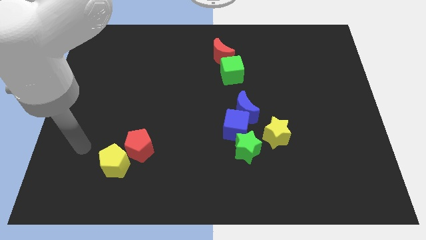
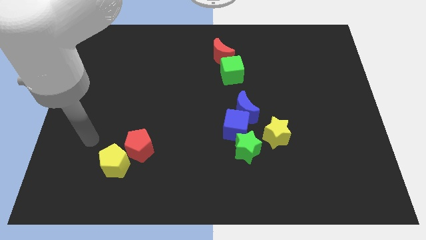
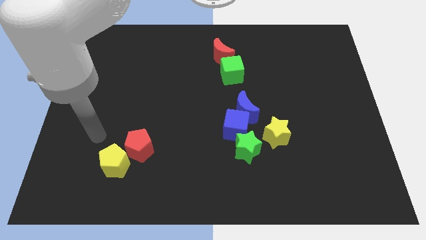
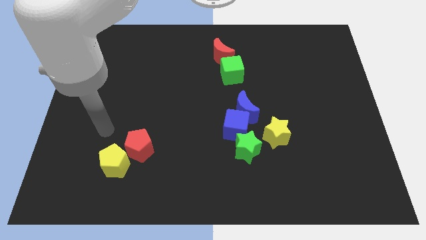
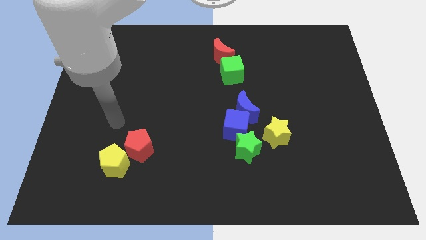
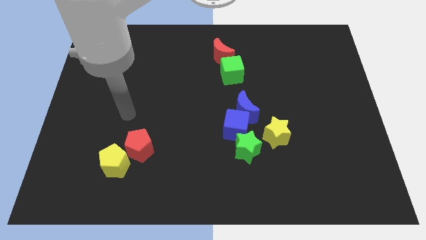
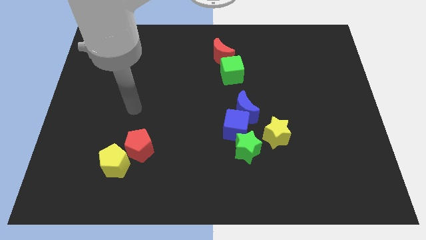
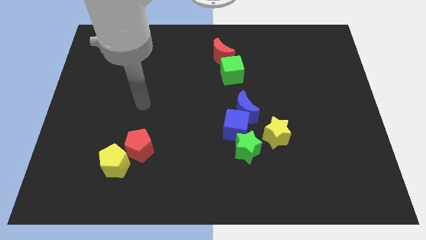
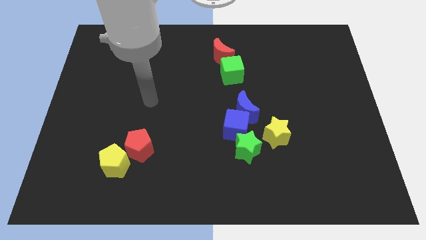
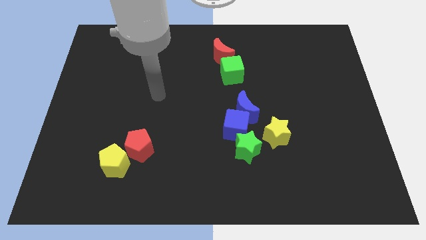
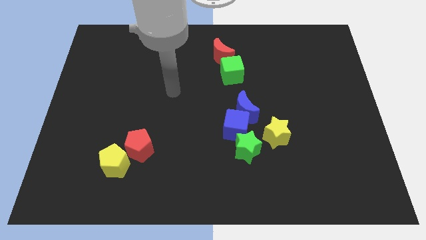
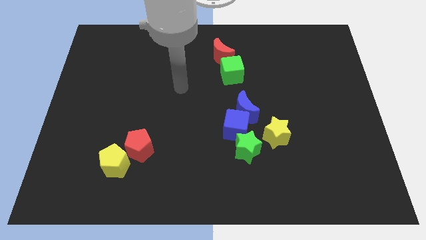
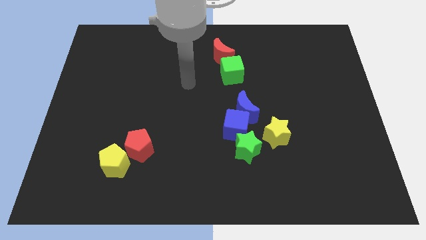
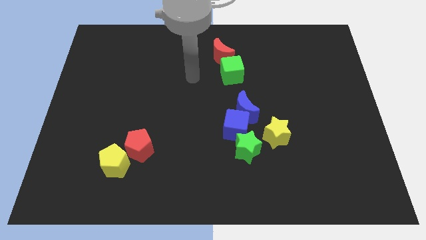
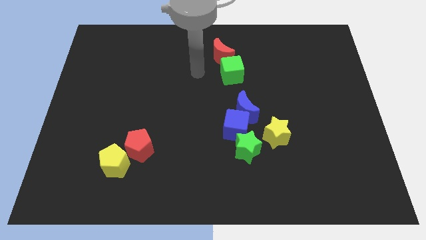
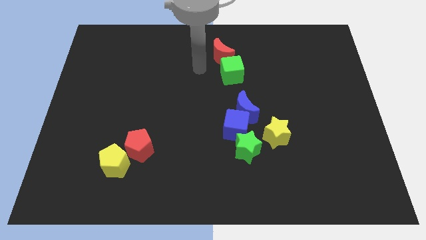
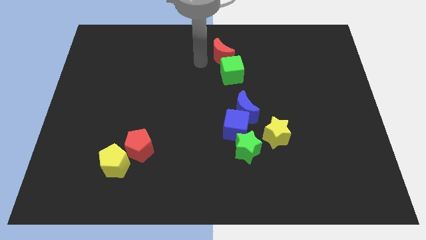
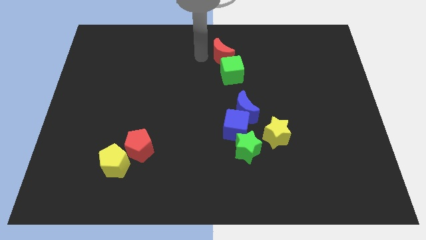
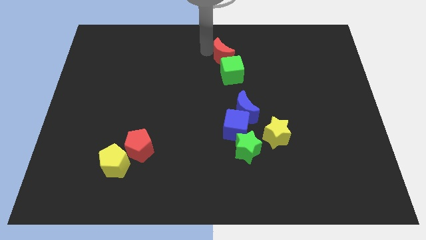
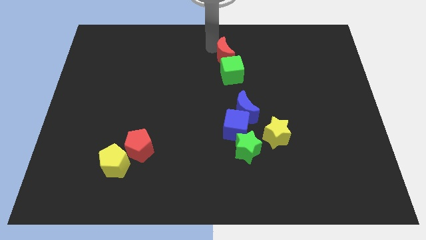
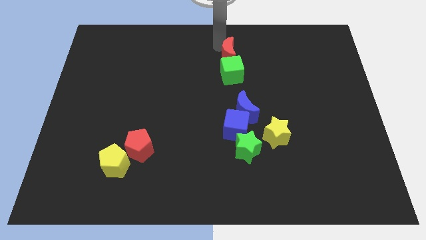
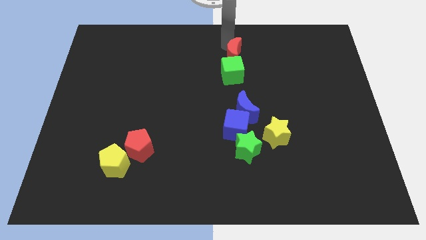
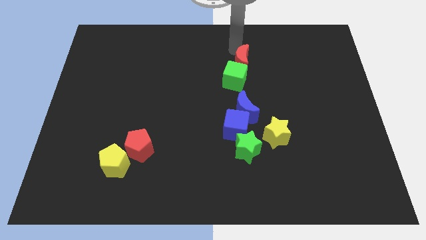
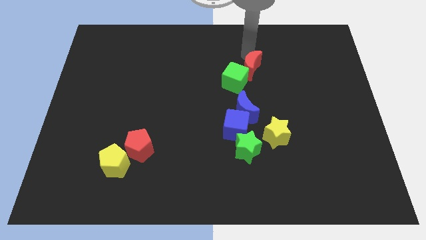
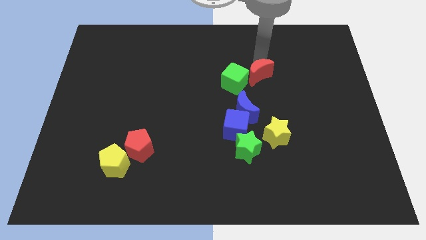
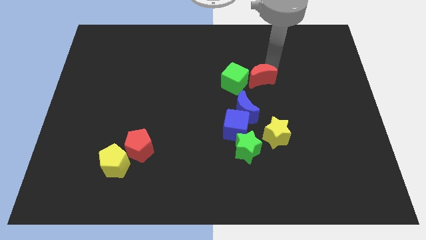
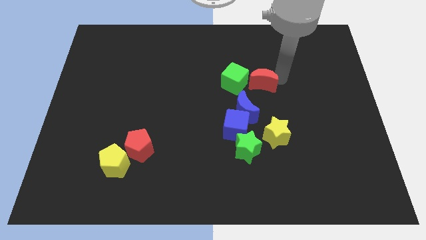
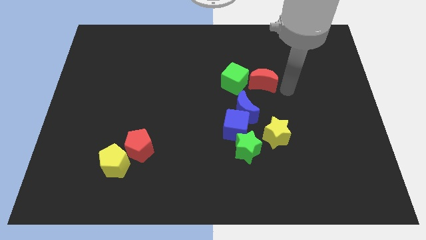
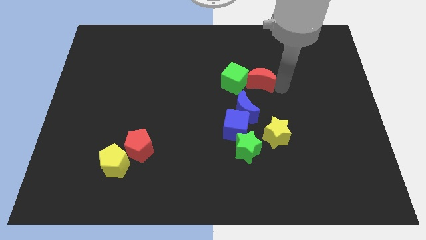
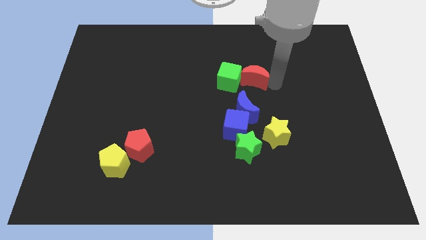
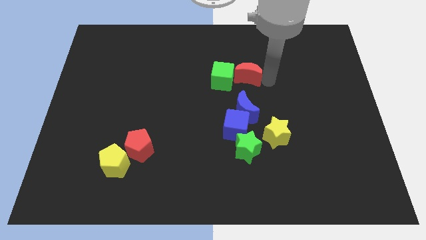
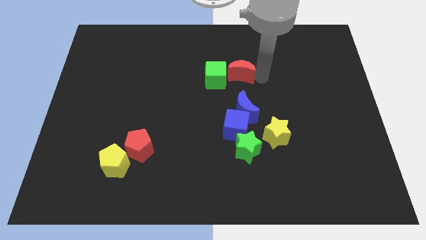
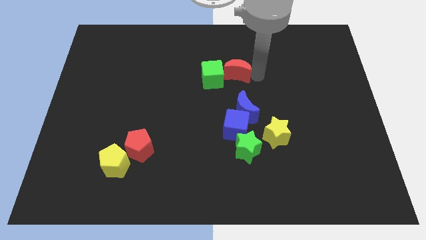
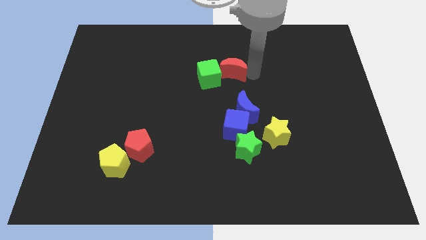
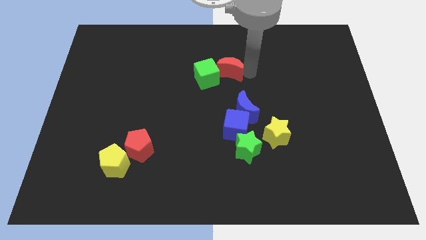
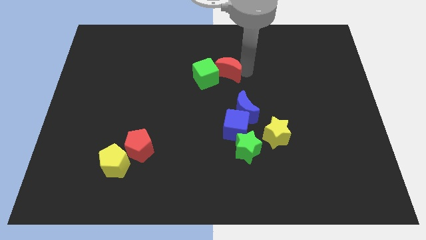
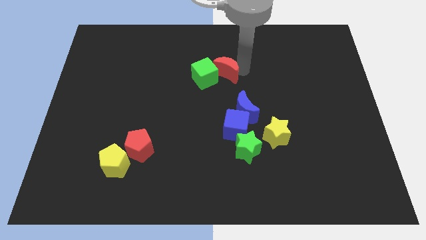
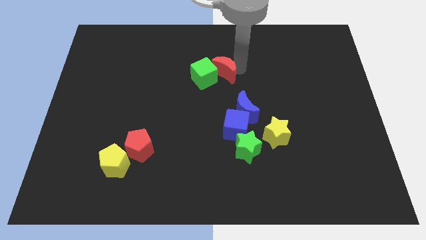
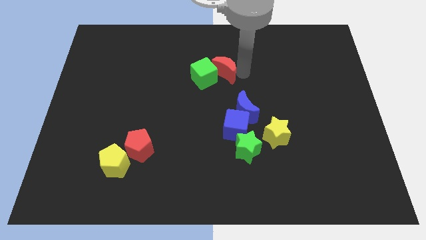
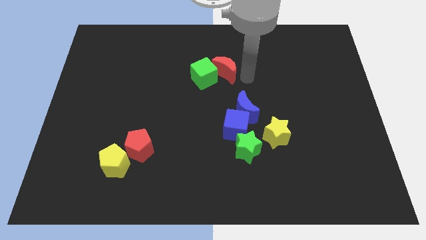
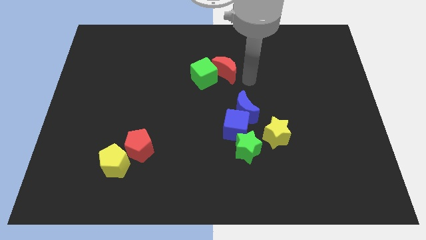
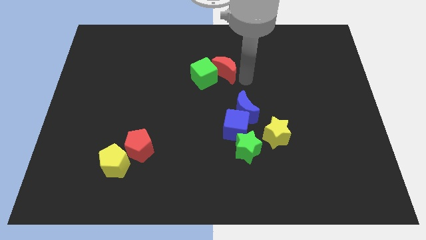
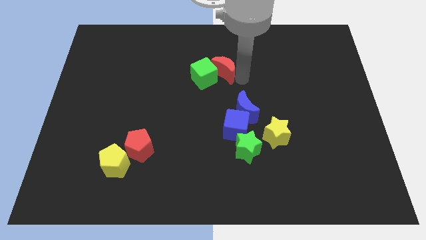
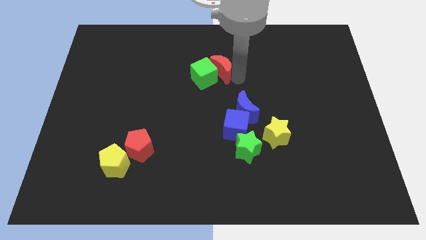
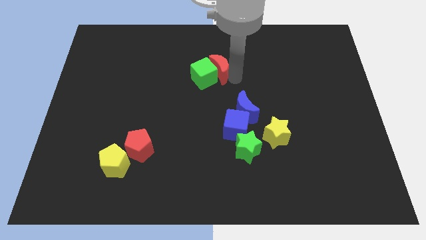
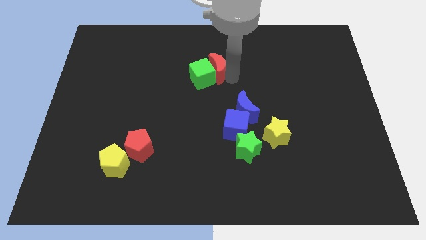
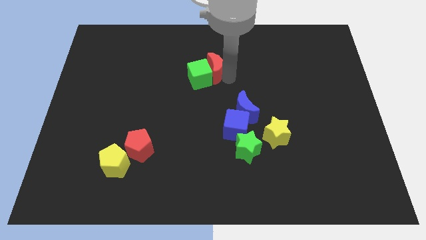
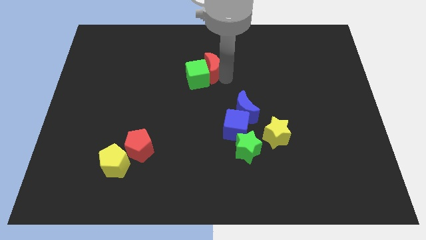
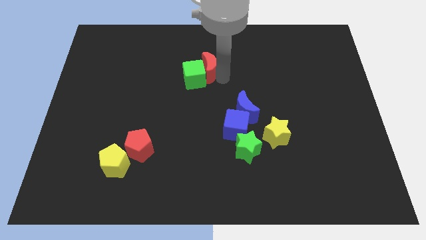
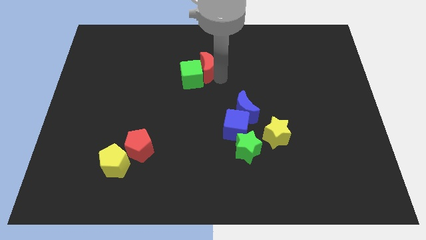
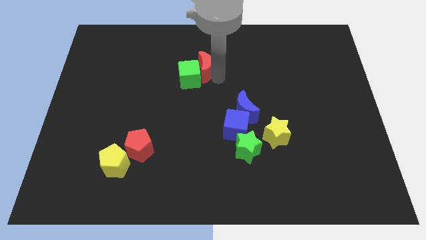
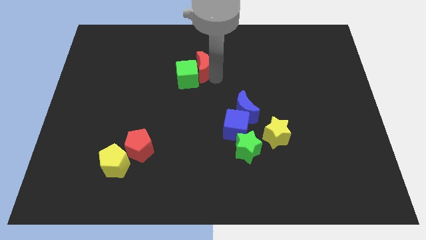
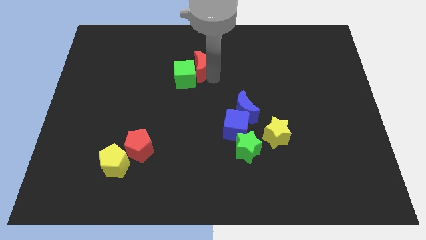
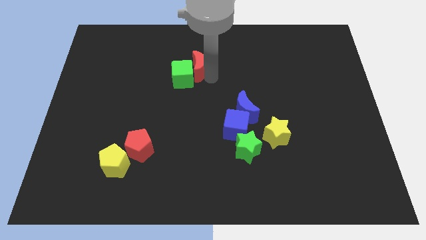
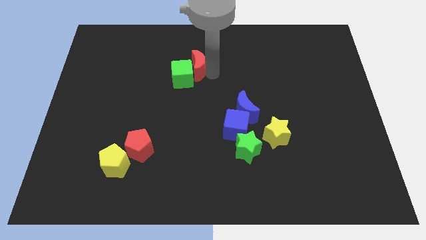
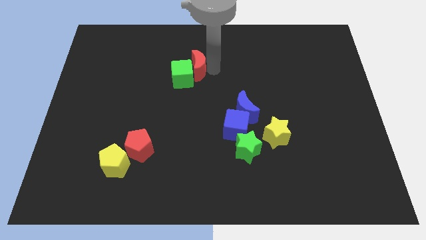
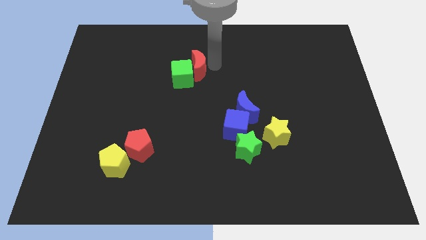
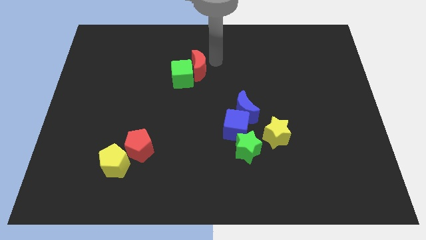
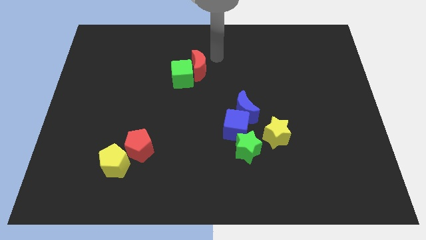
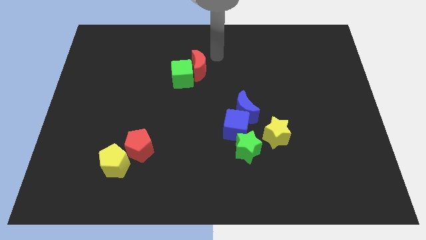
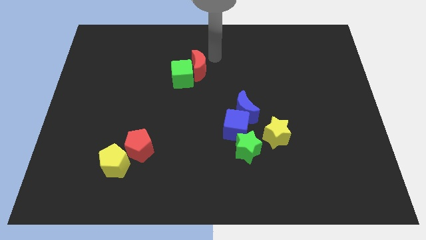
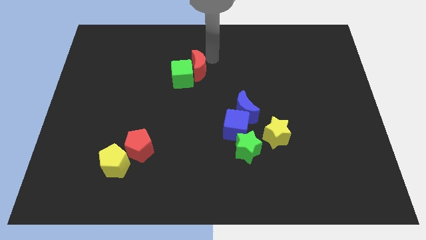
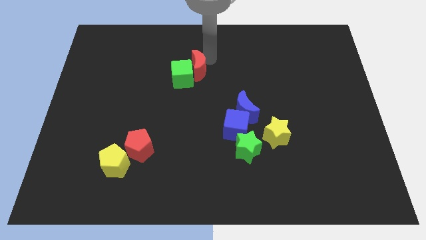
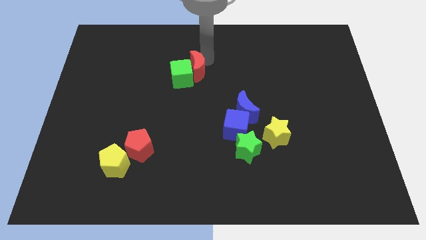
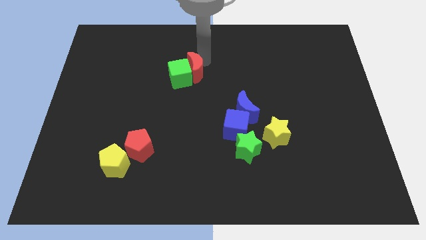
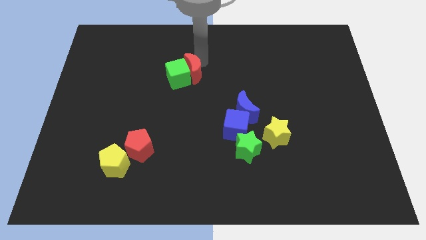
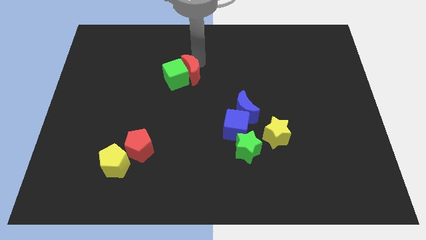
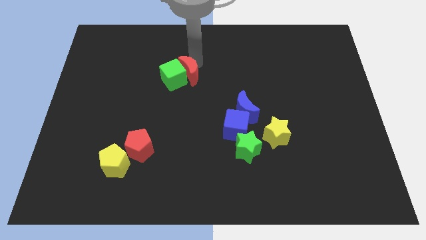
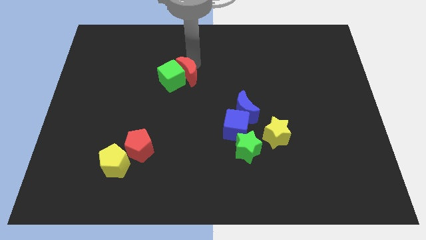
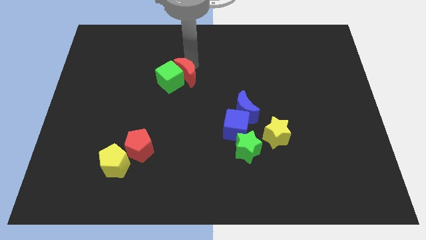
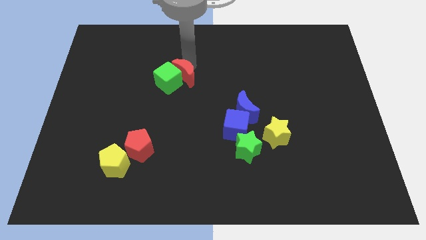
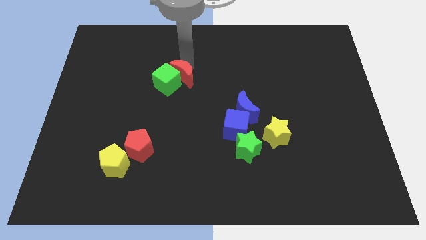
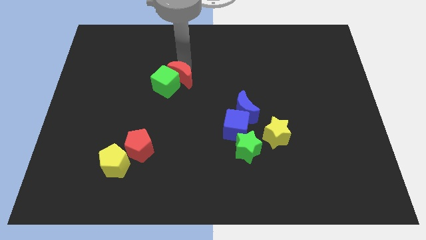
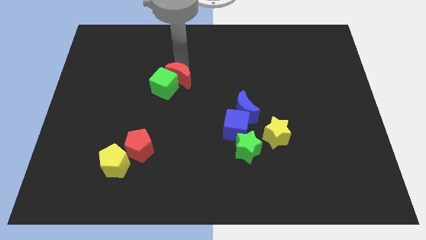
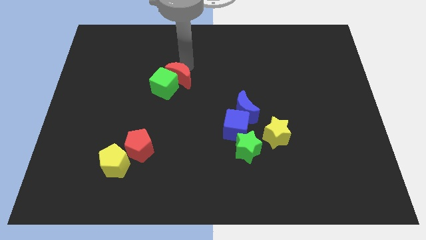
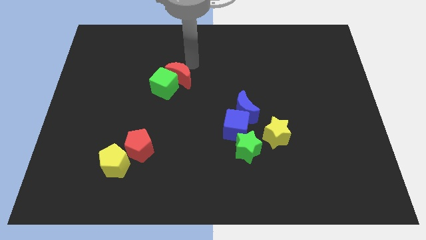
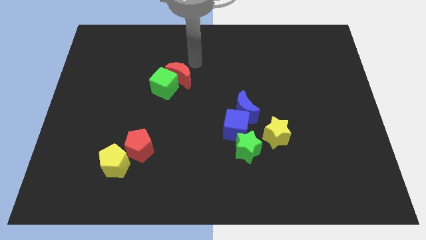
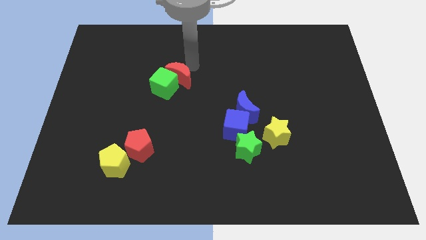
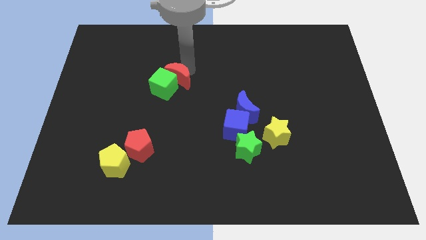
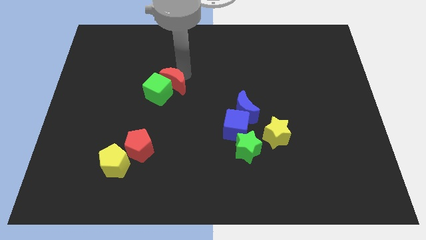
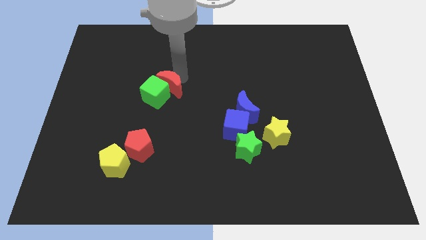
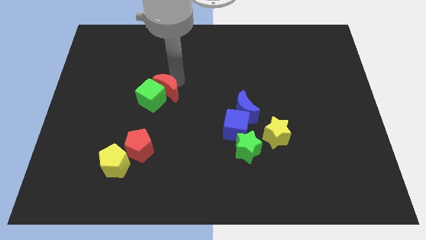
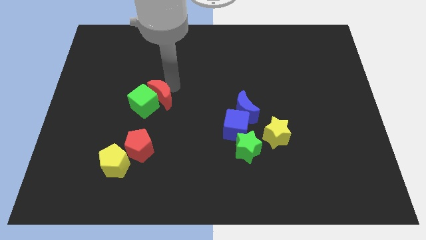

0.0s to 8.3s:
slide the red moon to the top of the red pentagon
